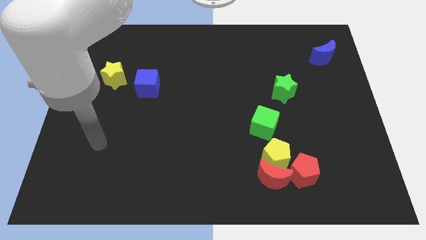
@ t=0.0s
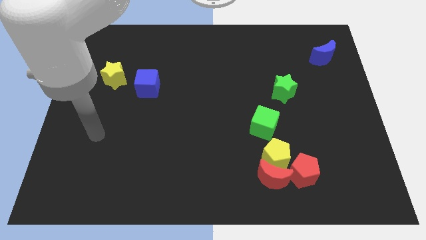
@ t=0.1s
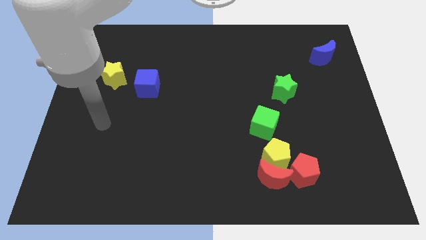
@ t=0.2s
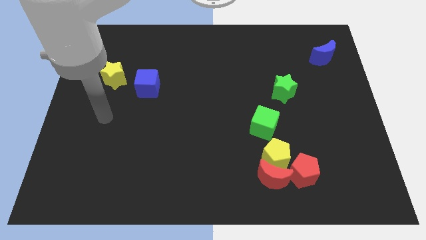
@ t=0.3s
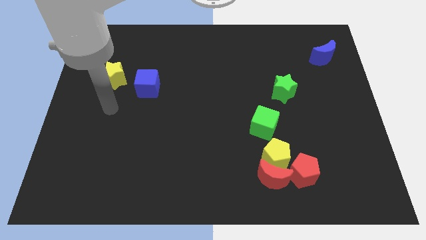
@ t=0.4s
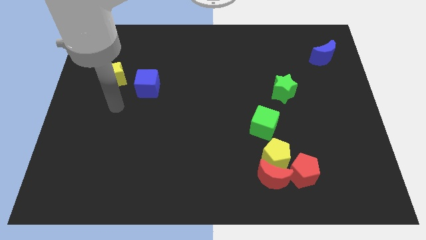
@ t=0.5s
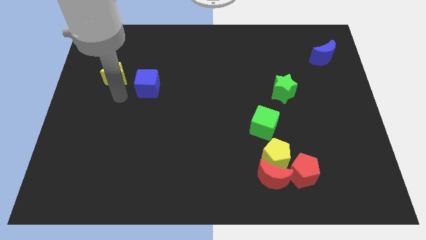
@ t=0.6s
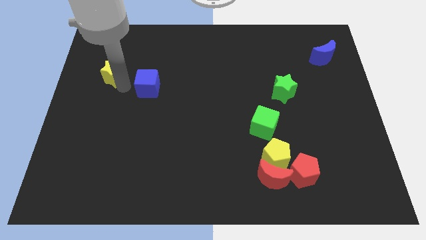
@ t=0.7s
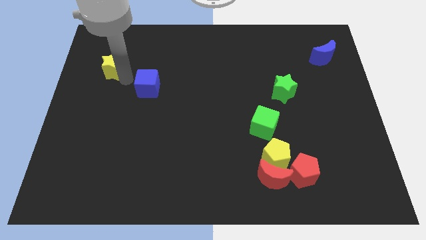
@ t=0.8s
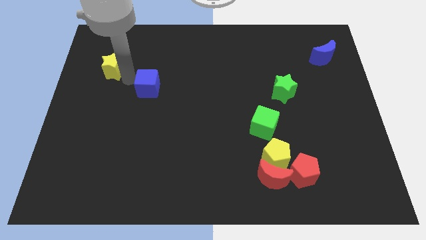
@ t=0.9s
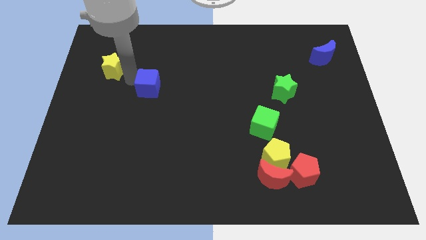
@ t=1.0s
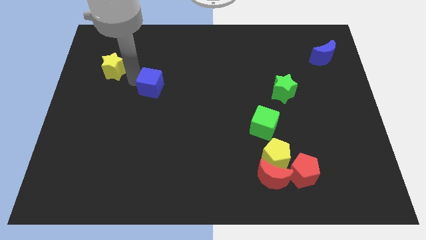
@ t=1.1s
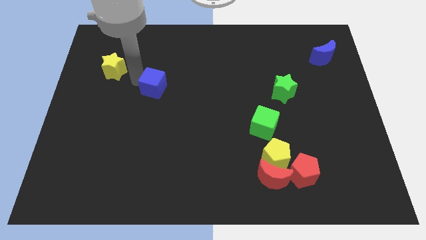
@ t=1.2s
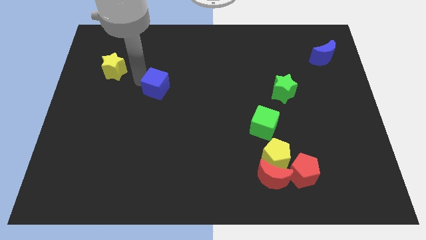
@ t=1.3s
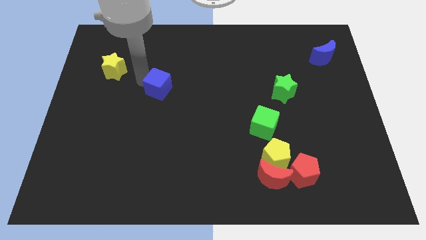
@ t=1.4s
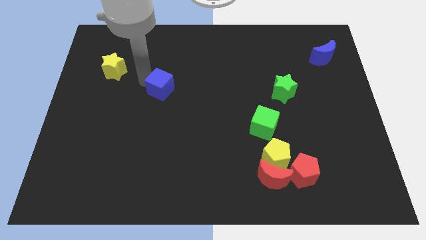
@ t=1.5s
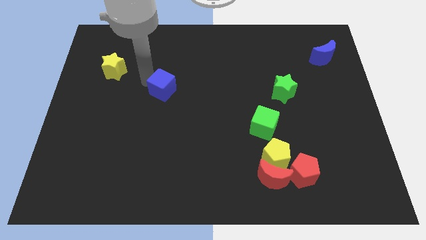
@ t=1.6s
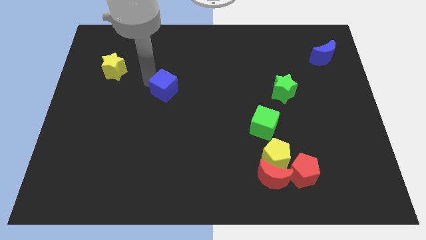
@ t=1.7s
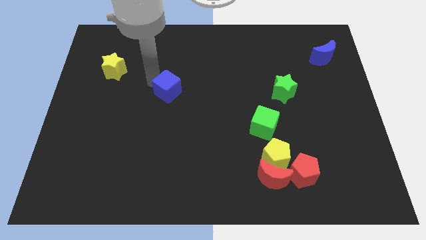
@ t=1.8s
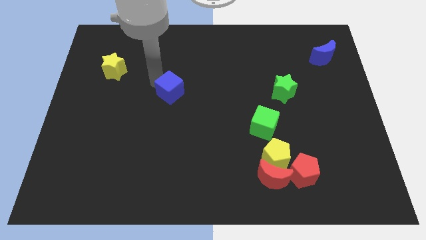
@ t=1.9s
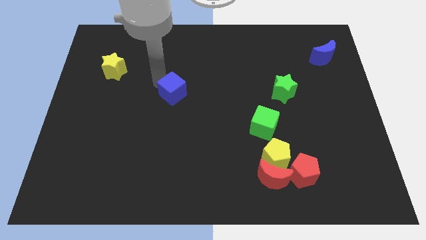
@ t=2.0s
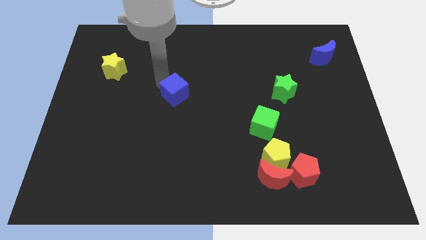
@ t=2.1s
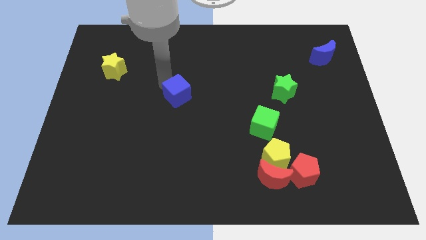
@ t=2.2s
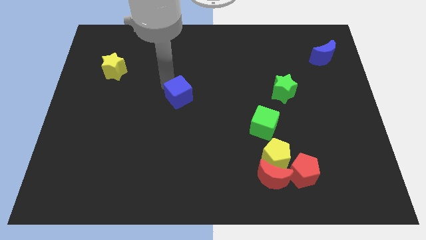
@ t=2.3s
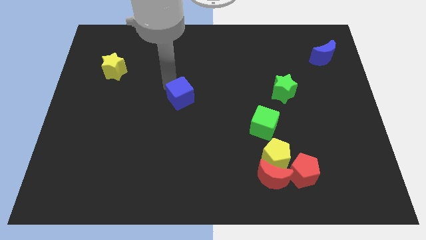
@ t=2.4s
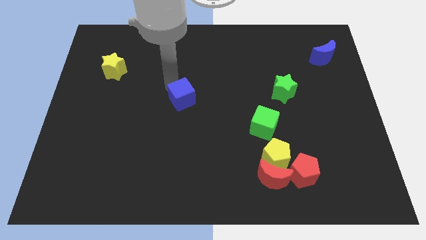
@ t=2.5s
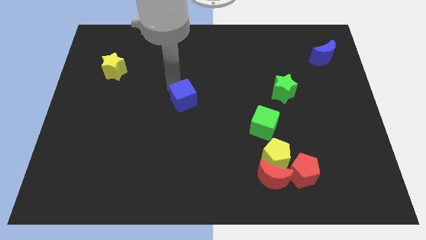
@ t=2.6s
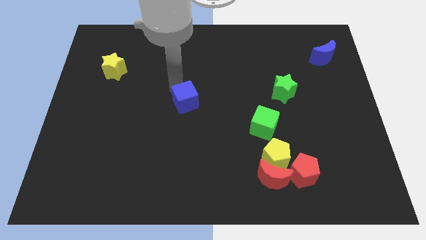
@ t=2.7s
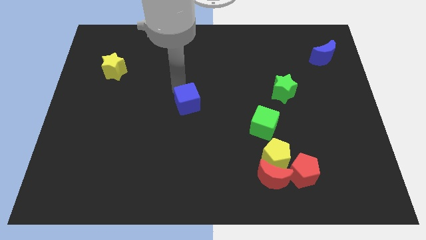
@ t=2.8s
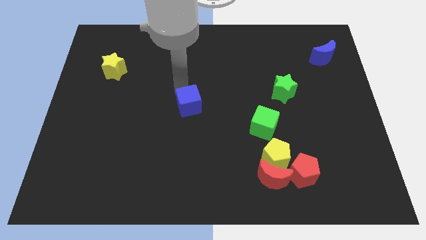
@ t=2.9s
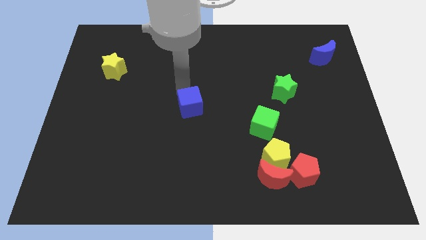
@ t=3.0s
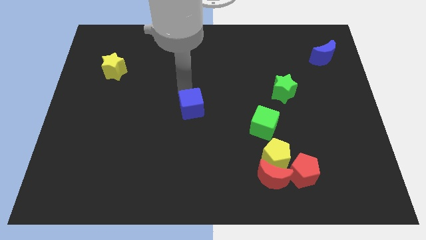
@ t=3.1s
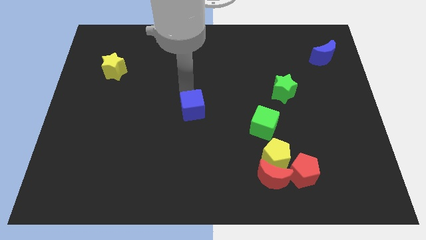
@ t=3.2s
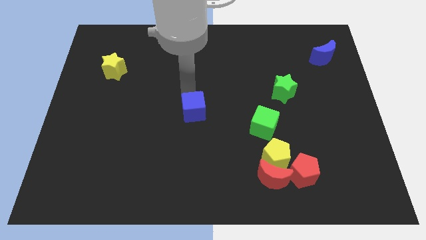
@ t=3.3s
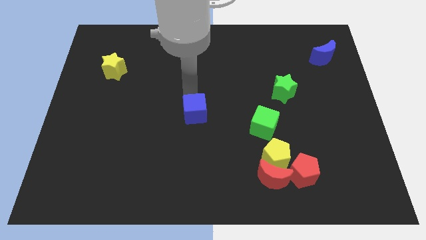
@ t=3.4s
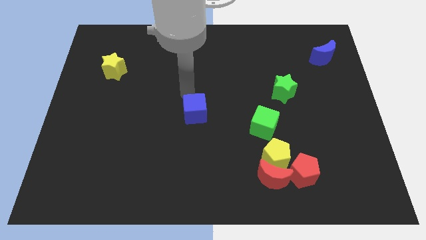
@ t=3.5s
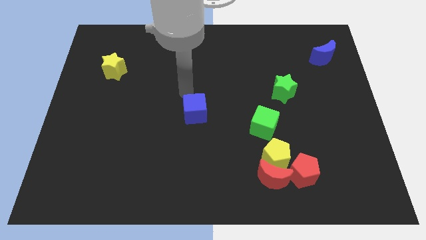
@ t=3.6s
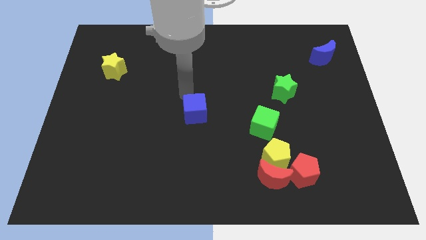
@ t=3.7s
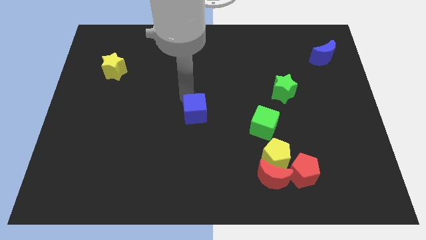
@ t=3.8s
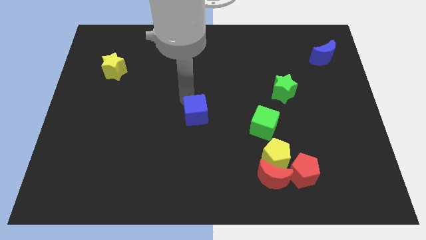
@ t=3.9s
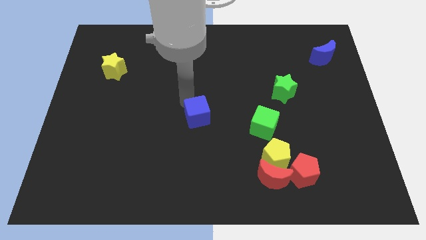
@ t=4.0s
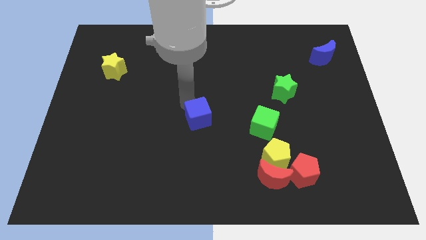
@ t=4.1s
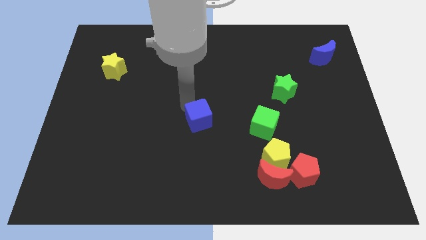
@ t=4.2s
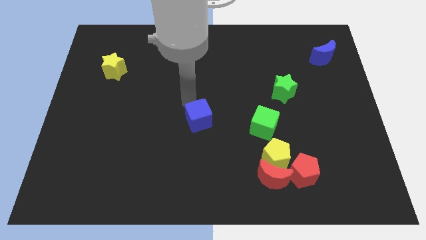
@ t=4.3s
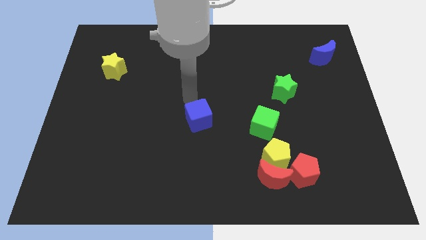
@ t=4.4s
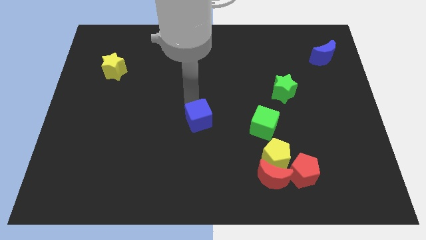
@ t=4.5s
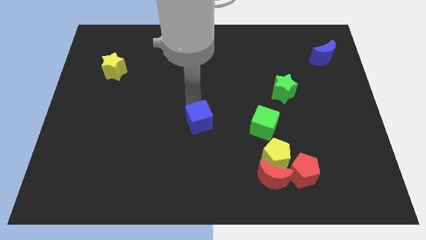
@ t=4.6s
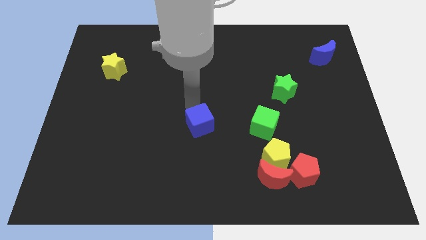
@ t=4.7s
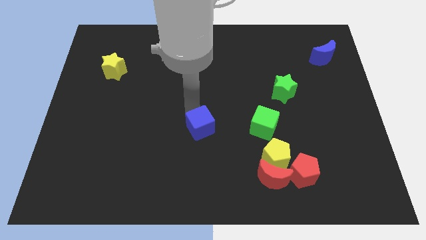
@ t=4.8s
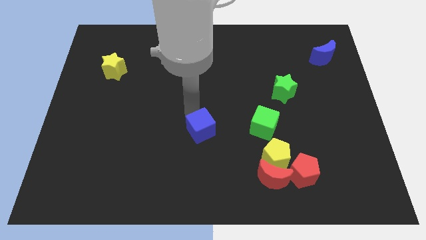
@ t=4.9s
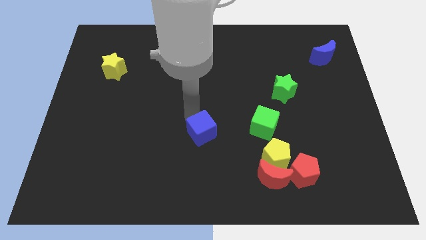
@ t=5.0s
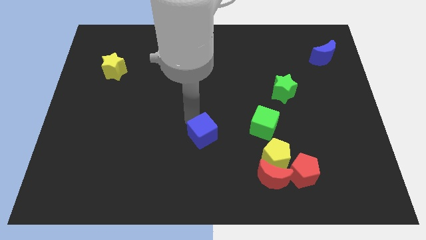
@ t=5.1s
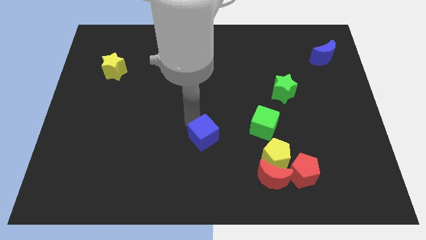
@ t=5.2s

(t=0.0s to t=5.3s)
push the blue cube down and to the right

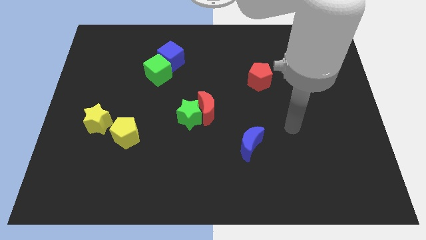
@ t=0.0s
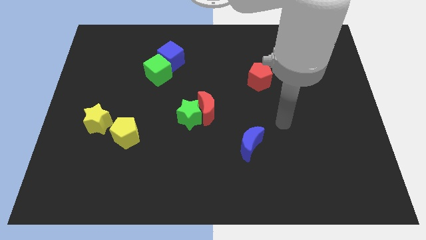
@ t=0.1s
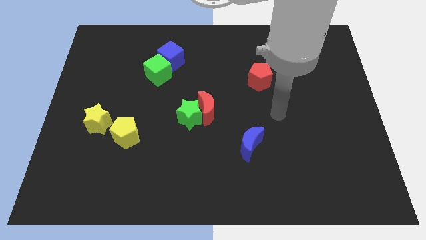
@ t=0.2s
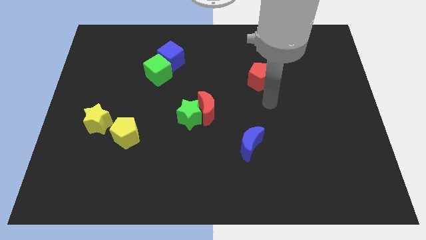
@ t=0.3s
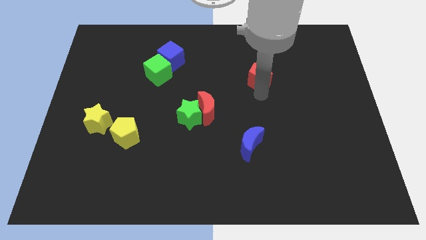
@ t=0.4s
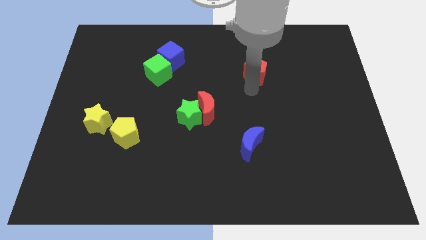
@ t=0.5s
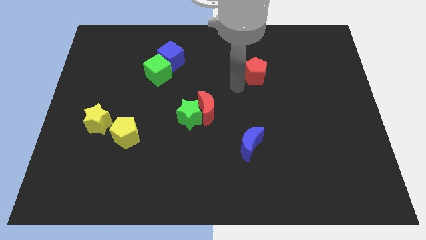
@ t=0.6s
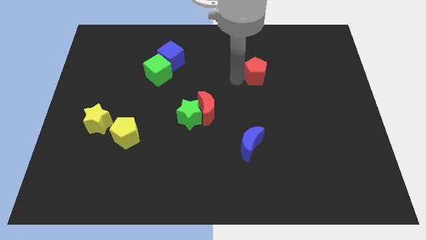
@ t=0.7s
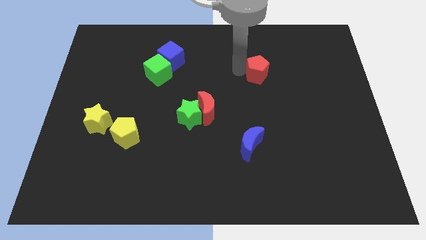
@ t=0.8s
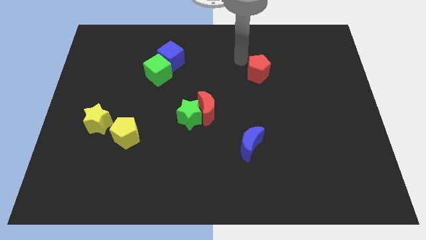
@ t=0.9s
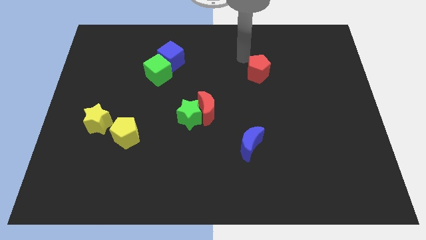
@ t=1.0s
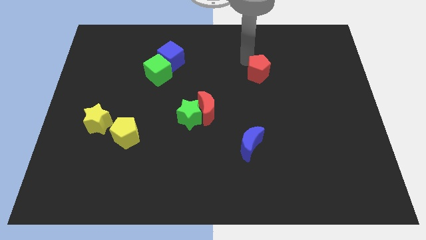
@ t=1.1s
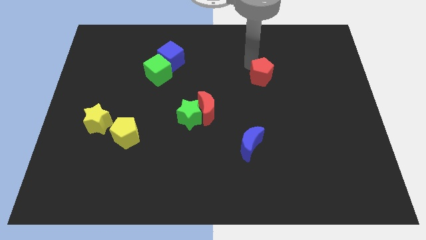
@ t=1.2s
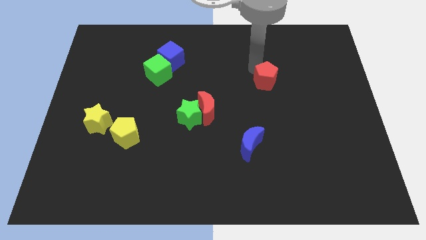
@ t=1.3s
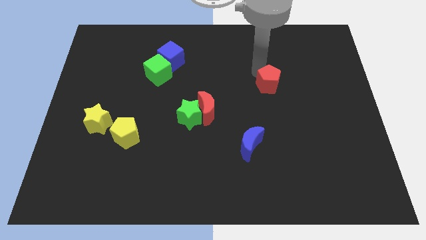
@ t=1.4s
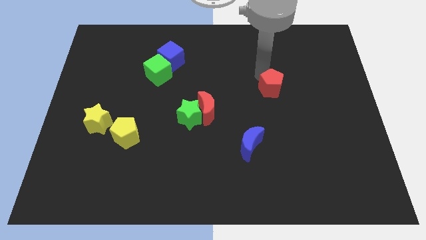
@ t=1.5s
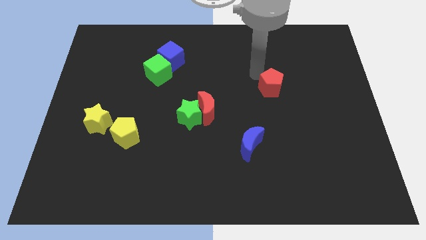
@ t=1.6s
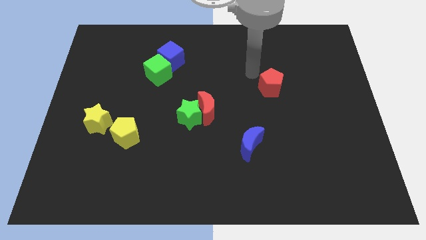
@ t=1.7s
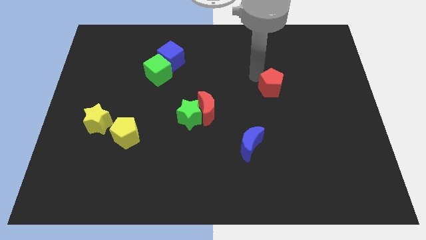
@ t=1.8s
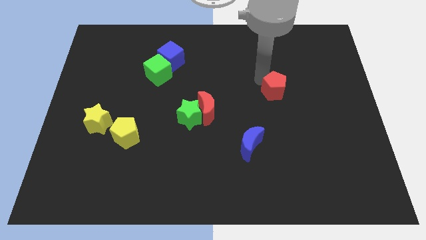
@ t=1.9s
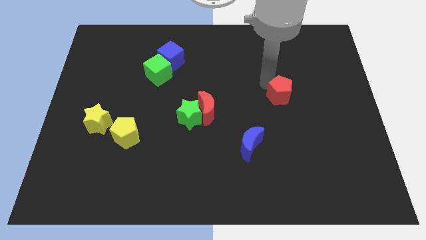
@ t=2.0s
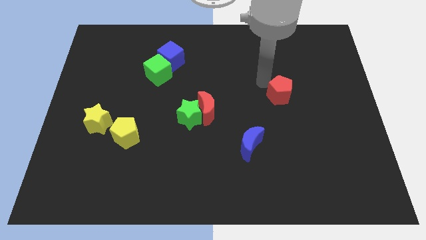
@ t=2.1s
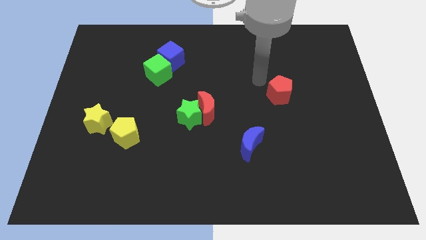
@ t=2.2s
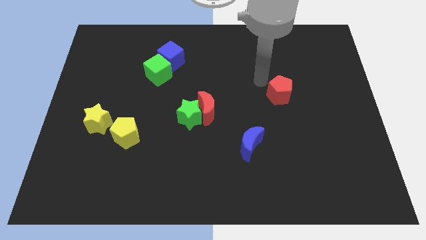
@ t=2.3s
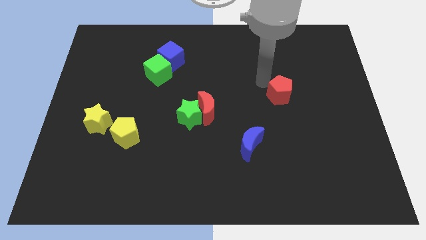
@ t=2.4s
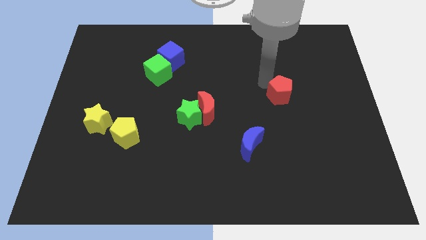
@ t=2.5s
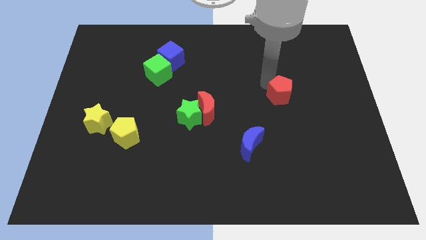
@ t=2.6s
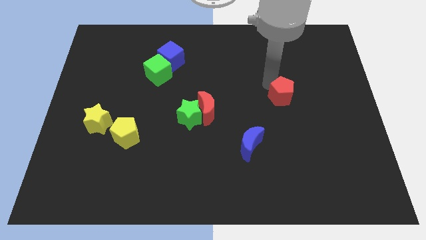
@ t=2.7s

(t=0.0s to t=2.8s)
slightly slide the red pentagon diagonally downwards and to the right

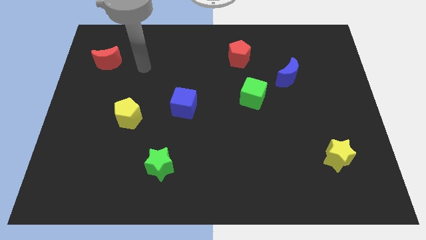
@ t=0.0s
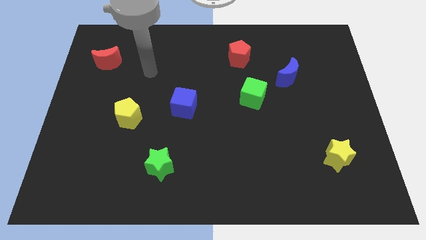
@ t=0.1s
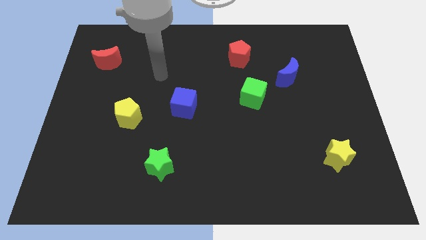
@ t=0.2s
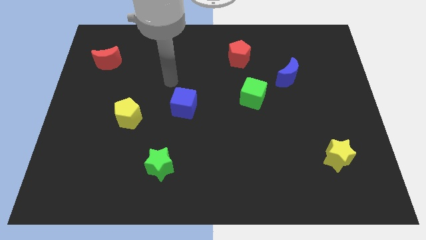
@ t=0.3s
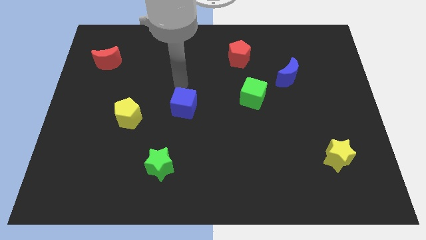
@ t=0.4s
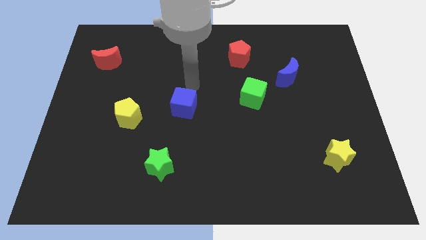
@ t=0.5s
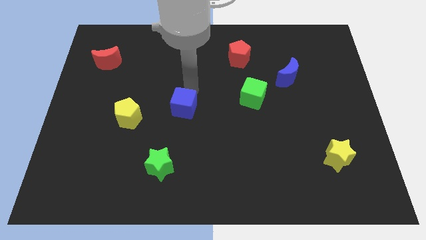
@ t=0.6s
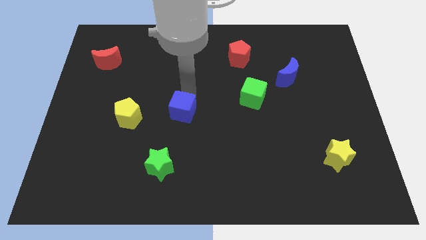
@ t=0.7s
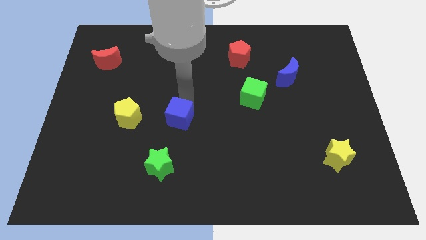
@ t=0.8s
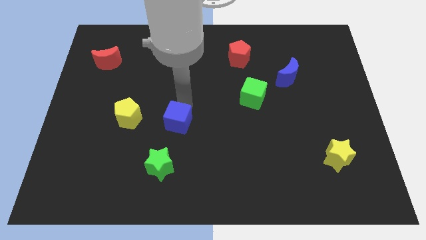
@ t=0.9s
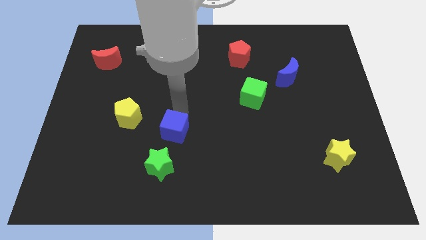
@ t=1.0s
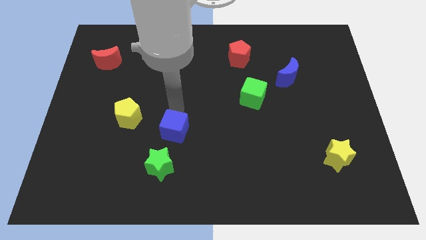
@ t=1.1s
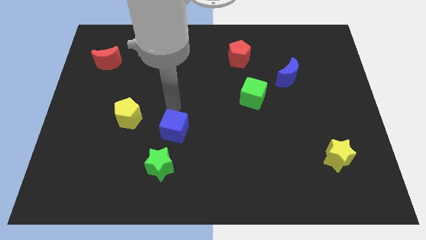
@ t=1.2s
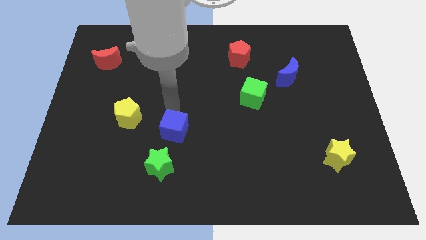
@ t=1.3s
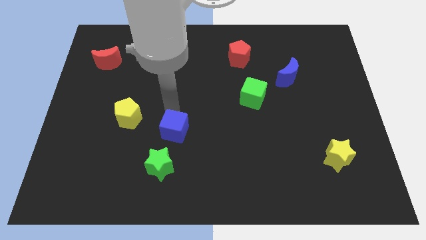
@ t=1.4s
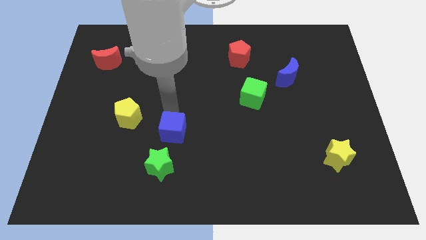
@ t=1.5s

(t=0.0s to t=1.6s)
move the blue cube somewhat downwards
